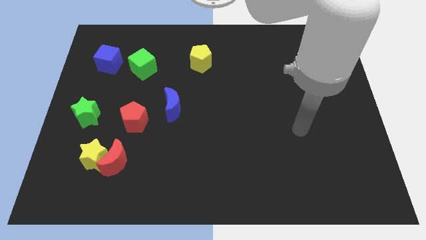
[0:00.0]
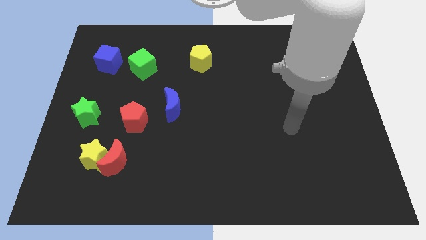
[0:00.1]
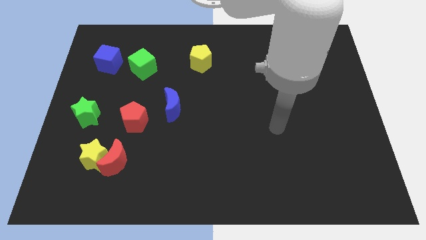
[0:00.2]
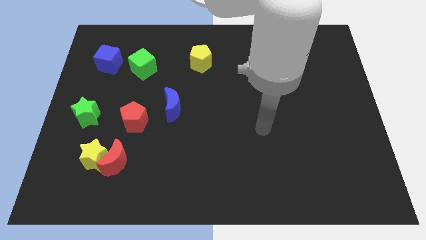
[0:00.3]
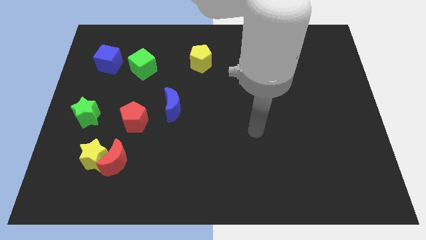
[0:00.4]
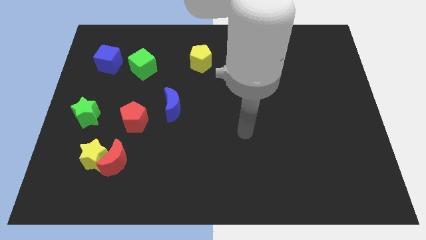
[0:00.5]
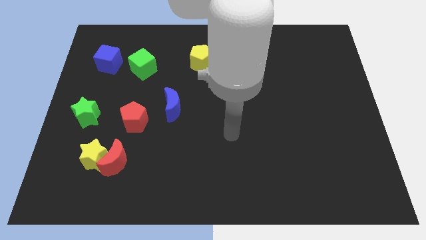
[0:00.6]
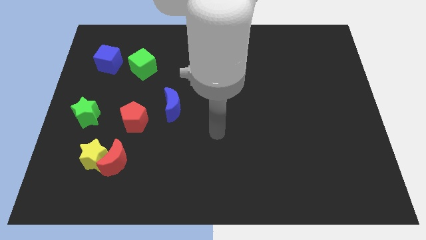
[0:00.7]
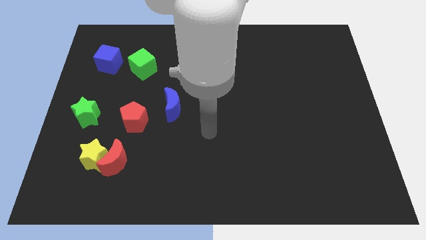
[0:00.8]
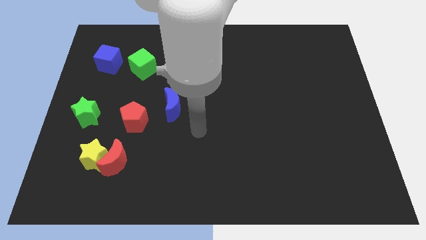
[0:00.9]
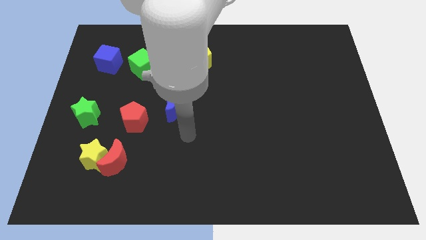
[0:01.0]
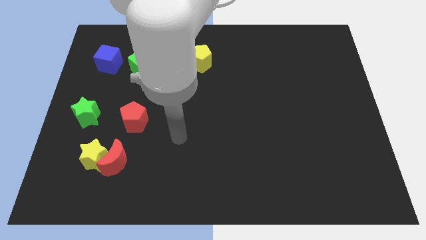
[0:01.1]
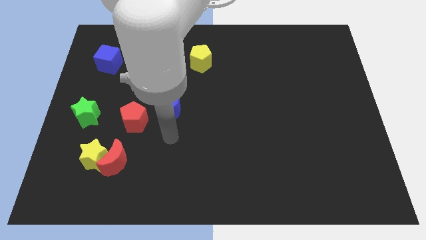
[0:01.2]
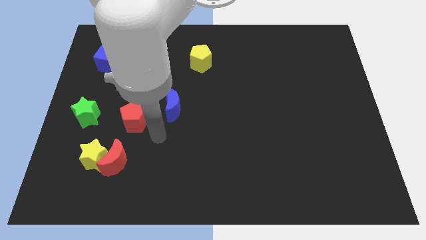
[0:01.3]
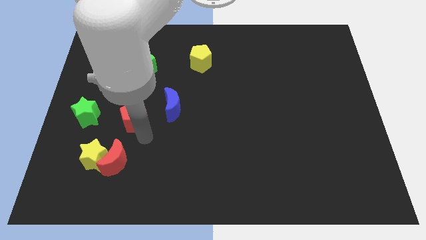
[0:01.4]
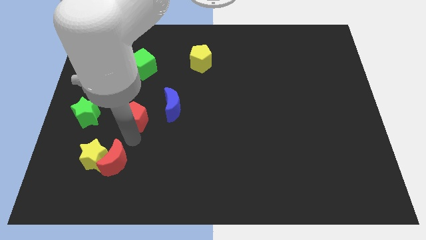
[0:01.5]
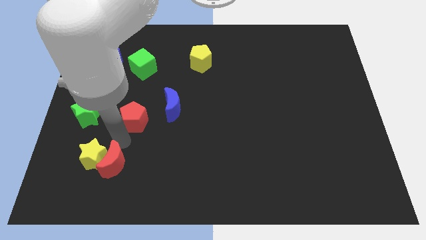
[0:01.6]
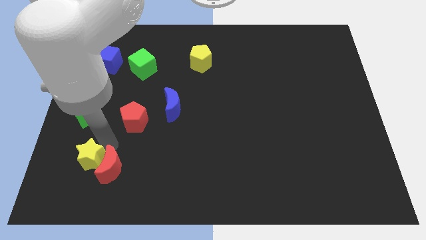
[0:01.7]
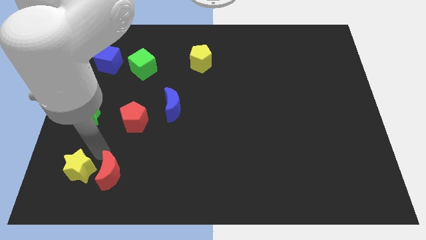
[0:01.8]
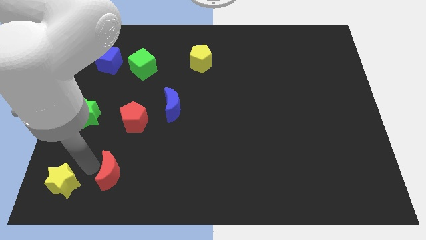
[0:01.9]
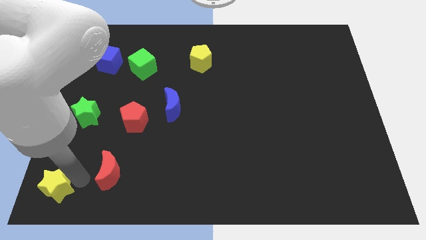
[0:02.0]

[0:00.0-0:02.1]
move the red moon away from the yellow star

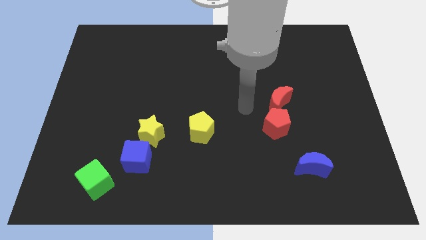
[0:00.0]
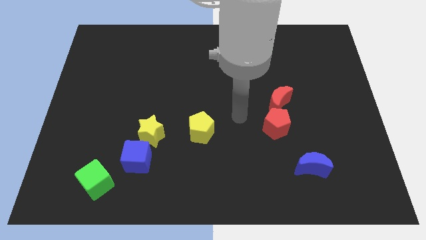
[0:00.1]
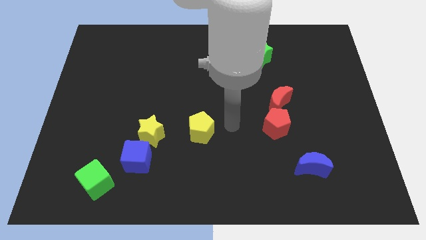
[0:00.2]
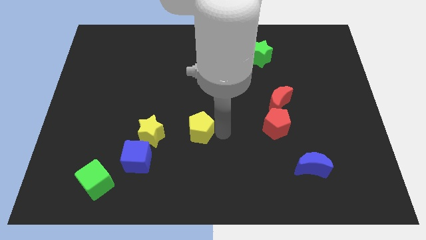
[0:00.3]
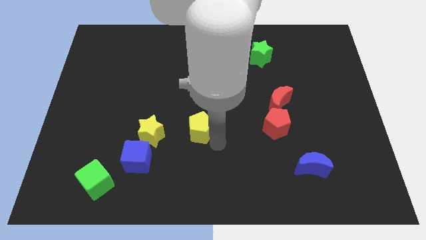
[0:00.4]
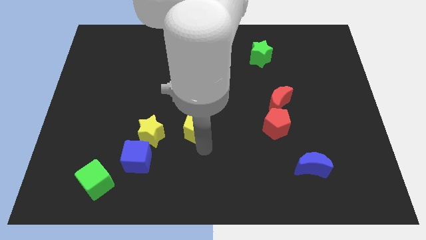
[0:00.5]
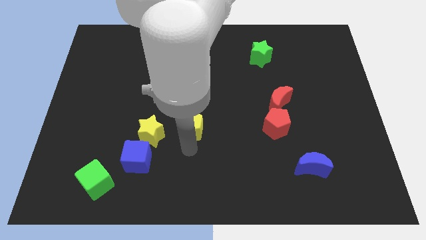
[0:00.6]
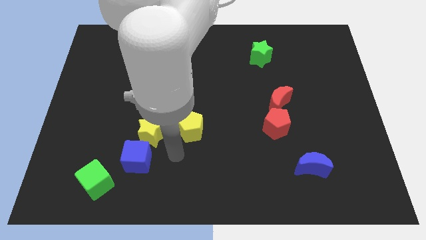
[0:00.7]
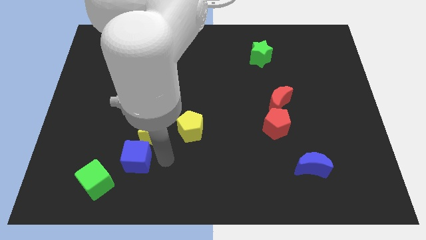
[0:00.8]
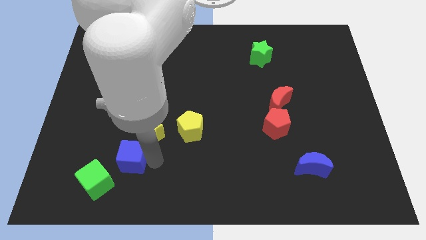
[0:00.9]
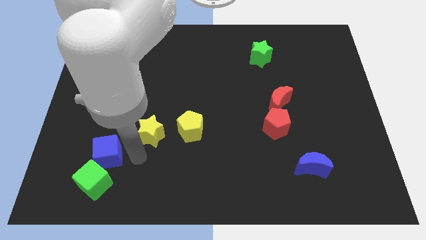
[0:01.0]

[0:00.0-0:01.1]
move the yellow star away from the blue cube

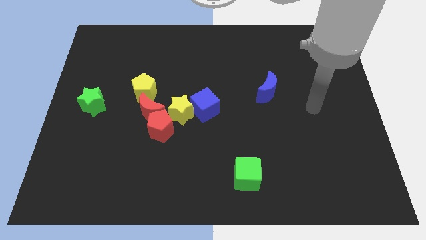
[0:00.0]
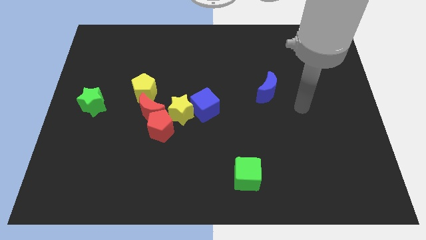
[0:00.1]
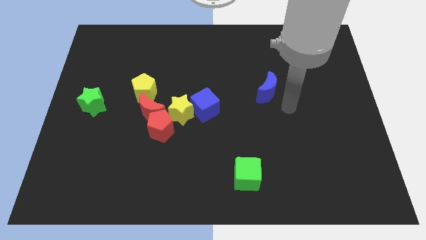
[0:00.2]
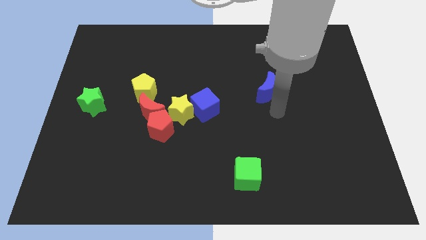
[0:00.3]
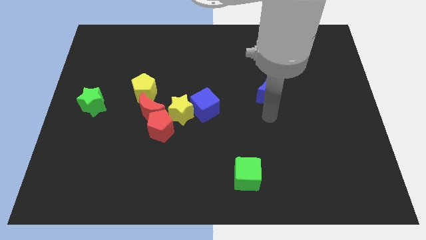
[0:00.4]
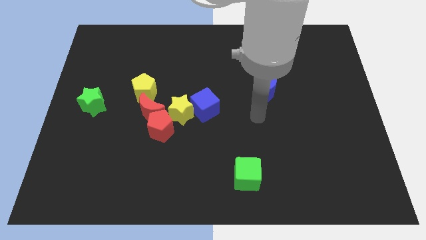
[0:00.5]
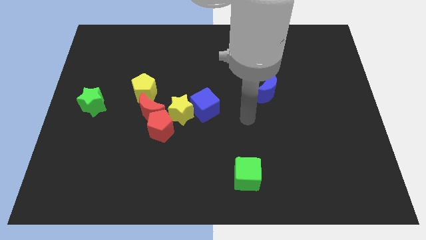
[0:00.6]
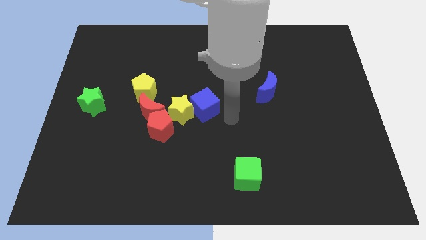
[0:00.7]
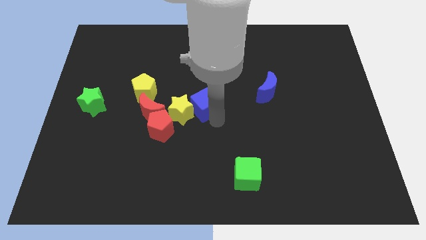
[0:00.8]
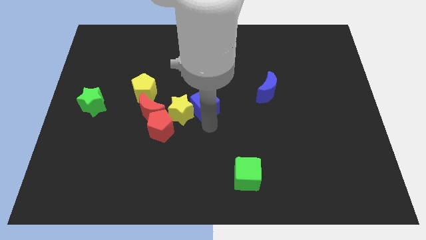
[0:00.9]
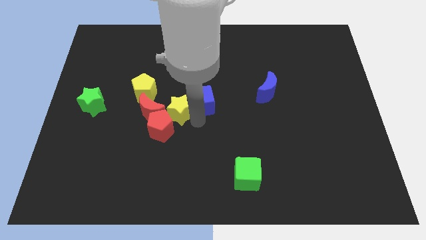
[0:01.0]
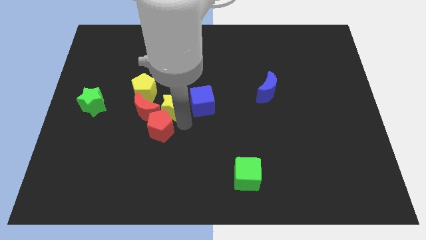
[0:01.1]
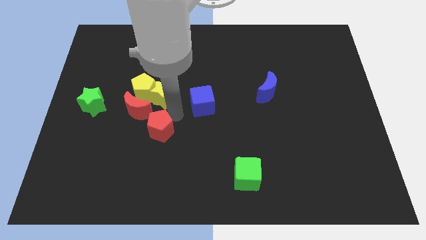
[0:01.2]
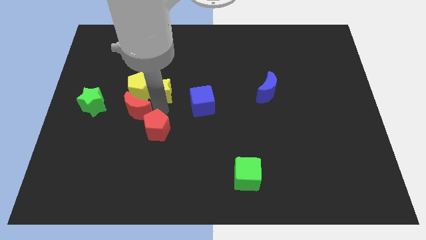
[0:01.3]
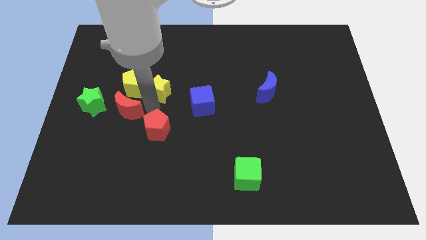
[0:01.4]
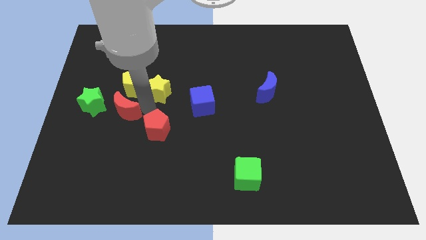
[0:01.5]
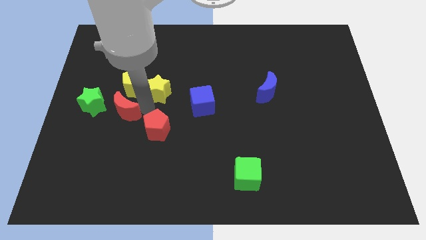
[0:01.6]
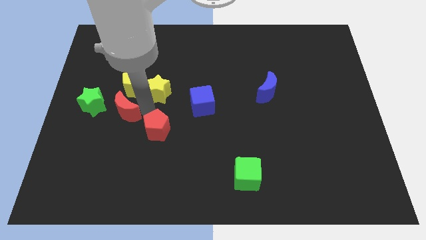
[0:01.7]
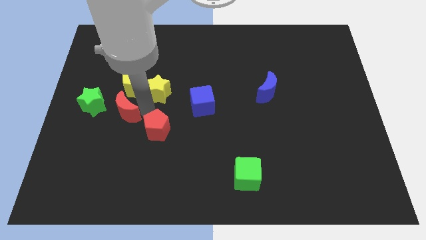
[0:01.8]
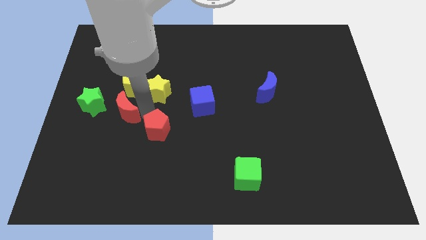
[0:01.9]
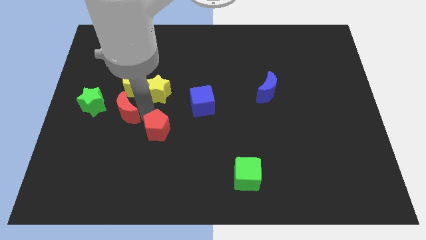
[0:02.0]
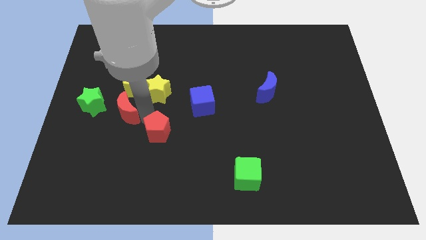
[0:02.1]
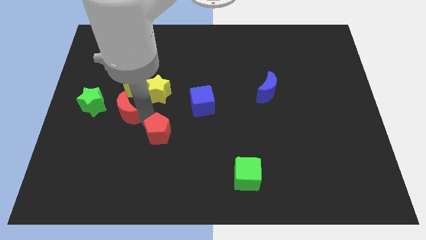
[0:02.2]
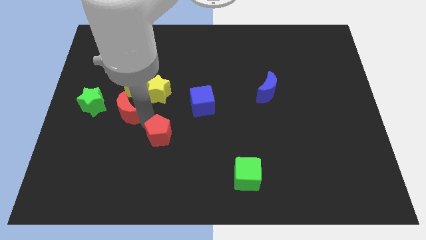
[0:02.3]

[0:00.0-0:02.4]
pull the red pentagon apart from the red moon and yellow star

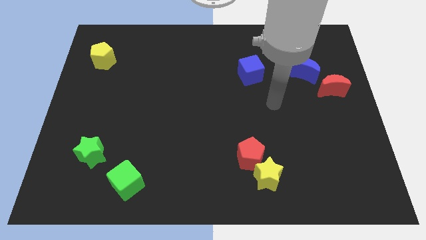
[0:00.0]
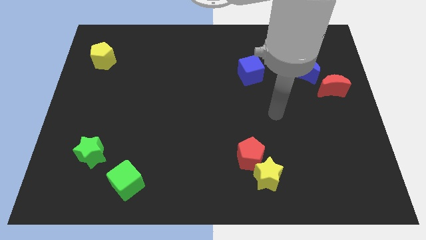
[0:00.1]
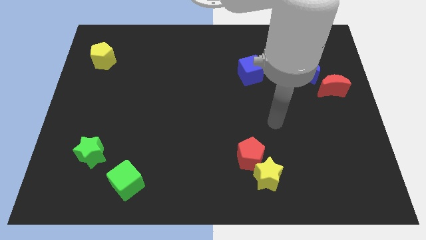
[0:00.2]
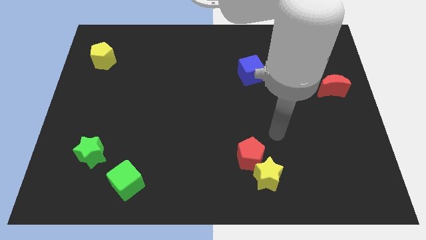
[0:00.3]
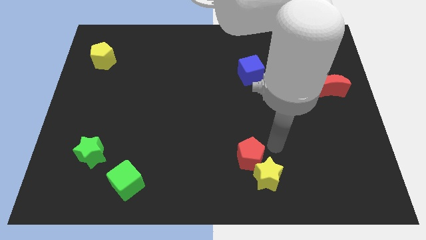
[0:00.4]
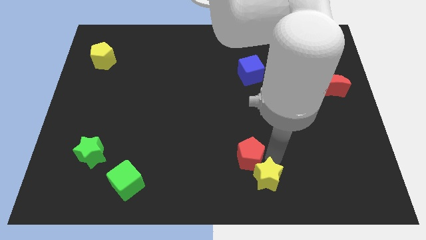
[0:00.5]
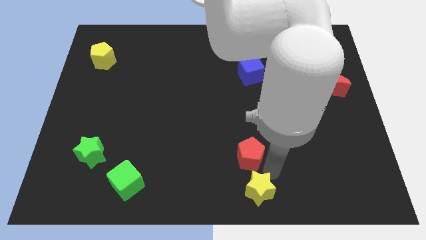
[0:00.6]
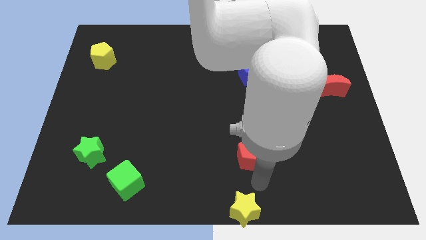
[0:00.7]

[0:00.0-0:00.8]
move the red pentagon away from the yellow star

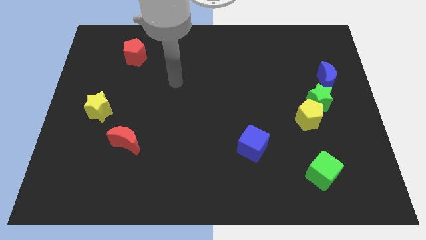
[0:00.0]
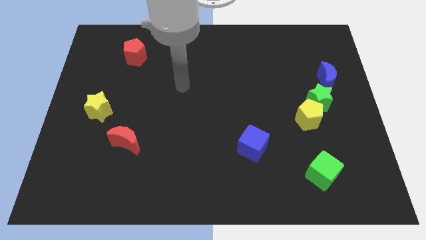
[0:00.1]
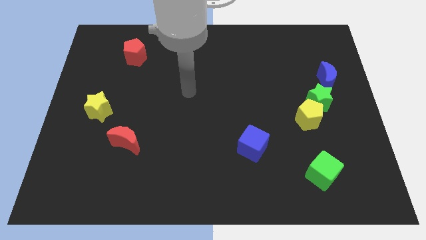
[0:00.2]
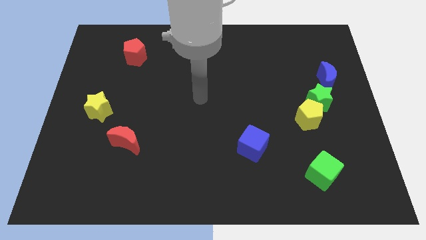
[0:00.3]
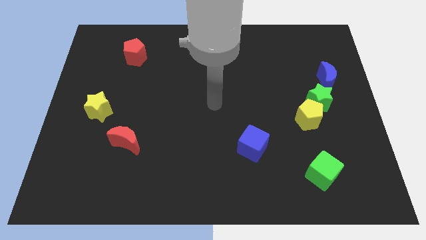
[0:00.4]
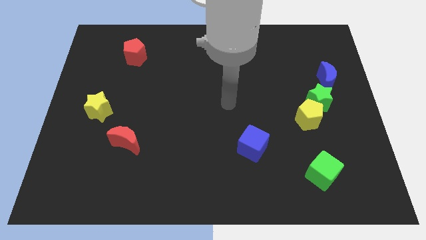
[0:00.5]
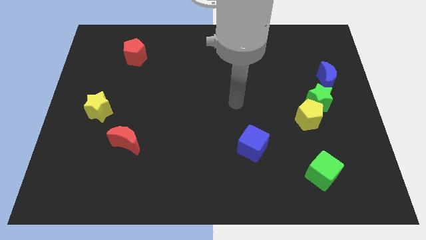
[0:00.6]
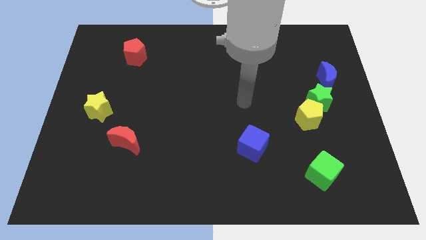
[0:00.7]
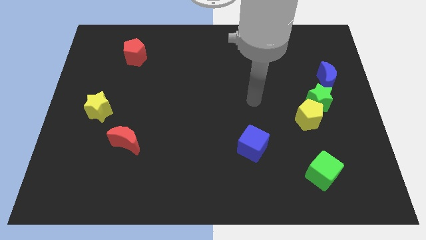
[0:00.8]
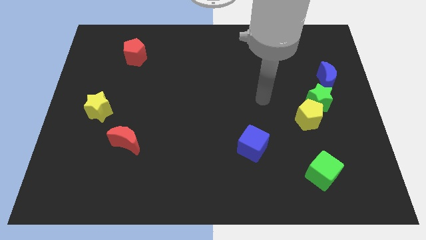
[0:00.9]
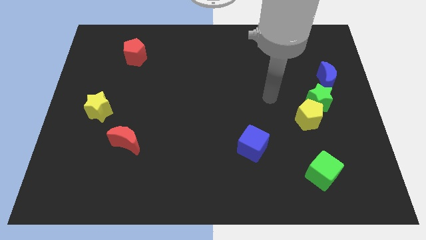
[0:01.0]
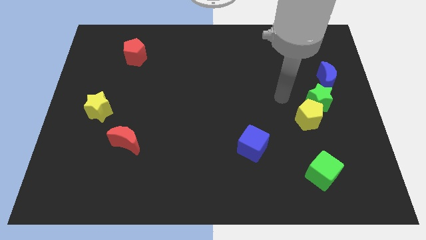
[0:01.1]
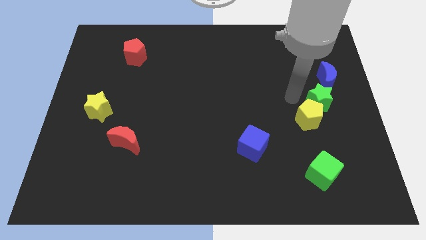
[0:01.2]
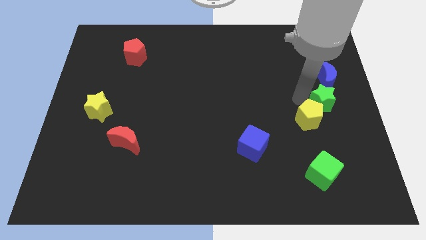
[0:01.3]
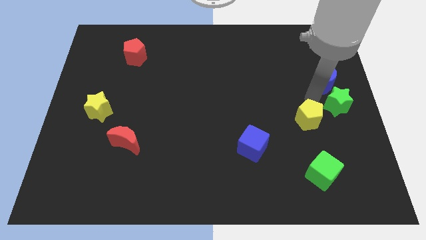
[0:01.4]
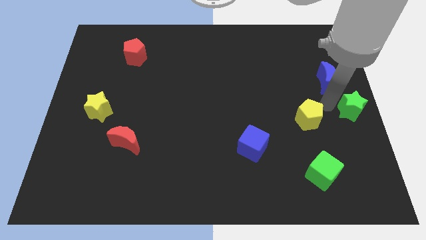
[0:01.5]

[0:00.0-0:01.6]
pull the yellow pentagon apart from the green star

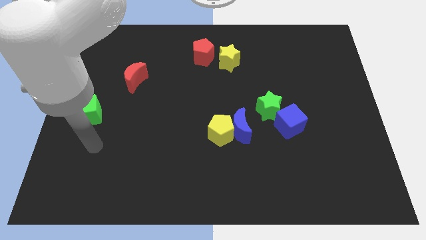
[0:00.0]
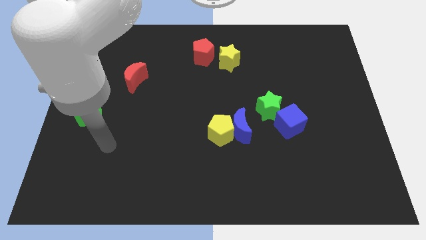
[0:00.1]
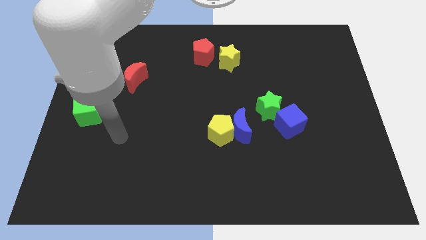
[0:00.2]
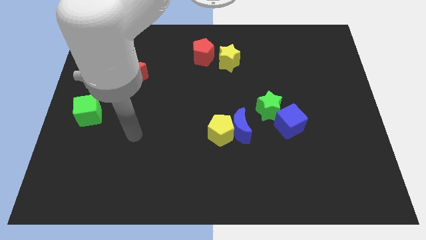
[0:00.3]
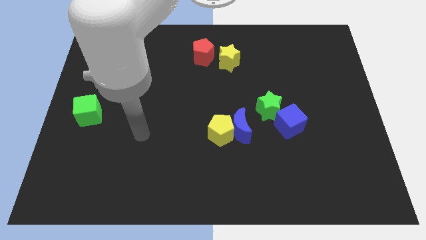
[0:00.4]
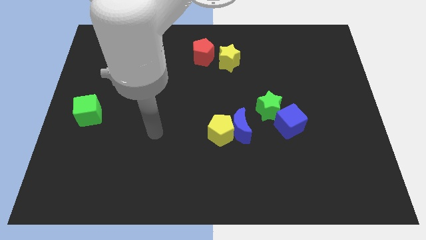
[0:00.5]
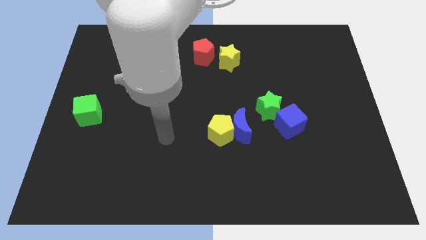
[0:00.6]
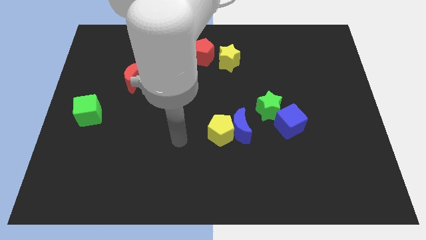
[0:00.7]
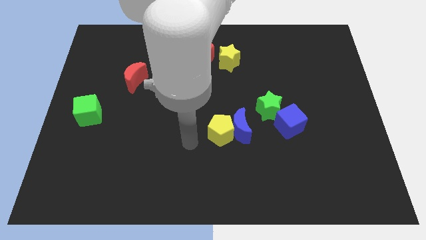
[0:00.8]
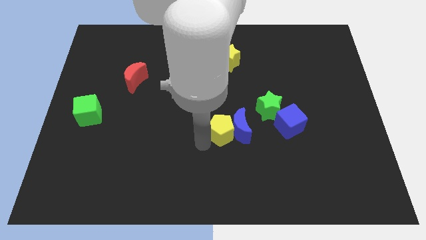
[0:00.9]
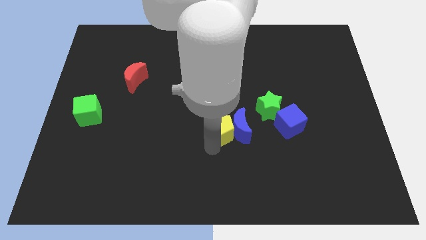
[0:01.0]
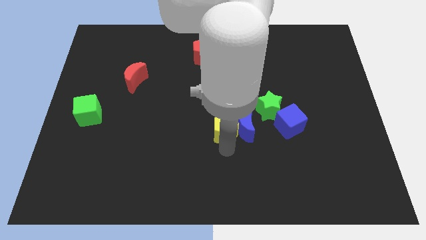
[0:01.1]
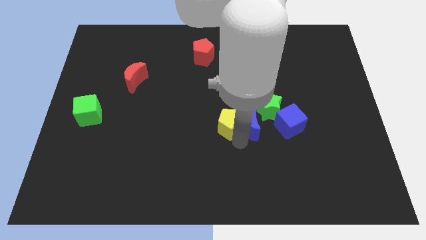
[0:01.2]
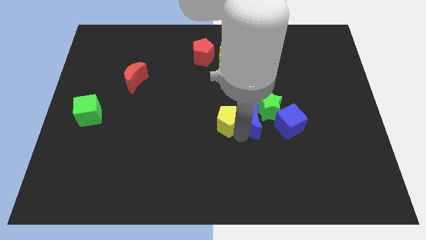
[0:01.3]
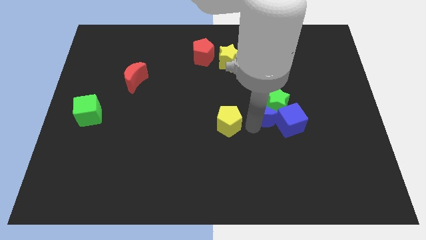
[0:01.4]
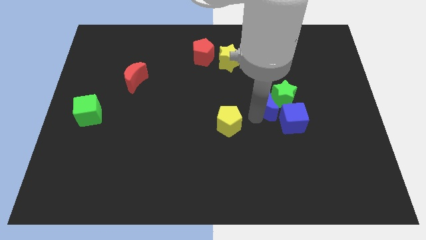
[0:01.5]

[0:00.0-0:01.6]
pull the yellow pentagon apart from the blue moon
